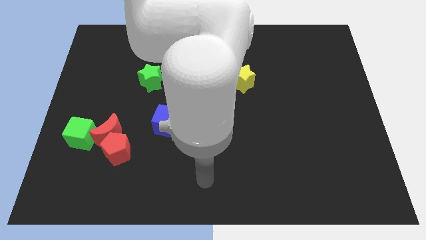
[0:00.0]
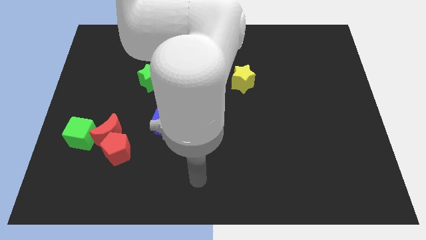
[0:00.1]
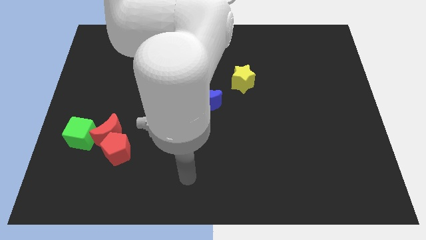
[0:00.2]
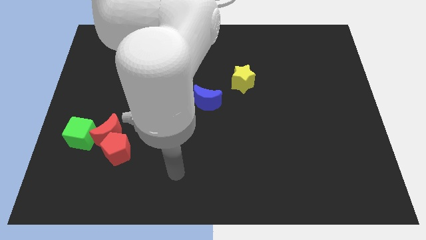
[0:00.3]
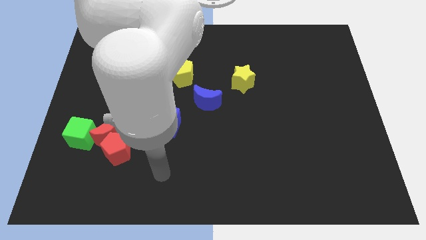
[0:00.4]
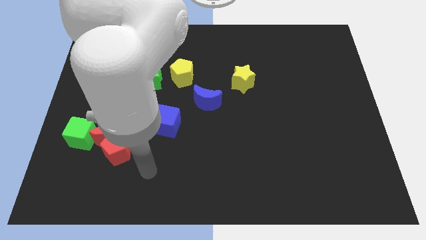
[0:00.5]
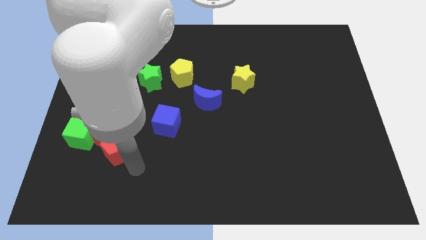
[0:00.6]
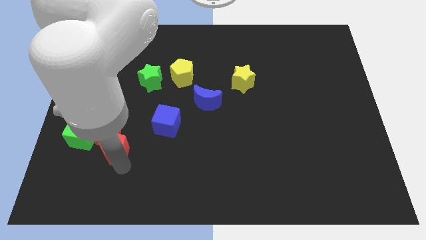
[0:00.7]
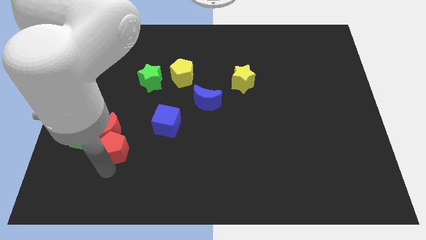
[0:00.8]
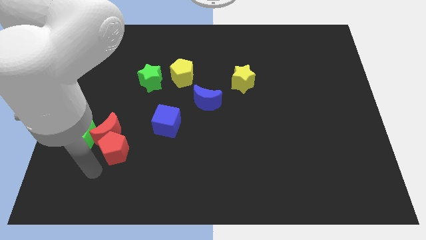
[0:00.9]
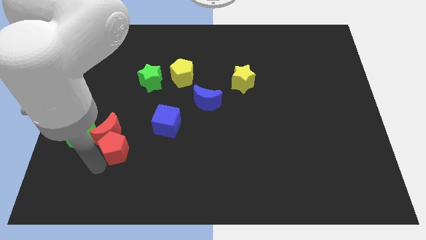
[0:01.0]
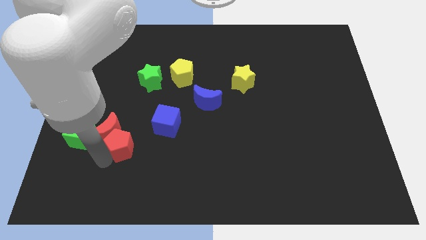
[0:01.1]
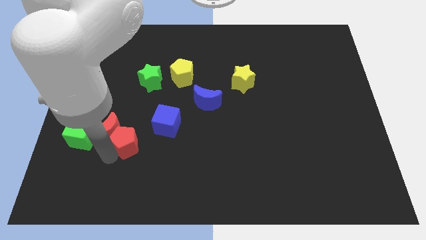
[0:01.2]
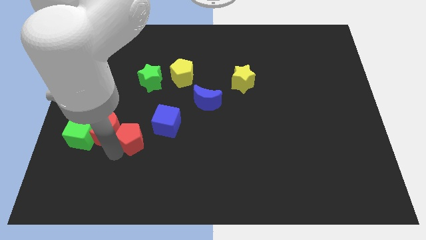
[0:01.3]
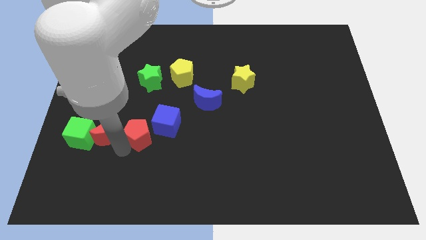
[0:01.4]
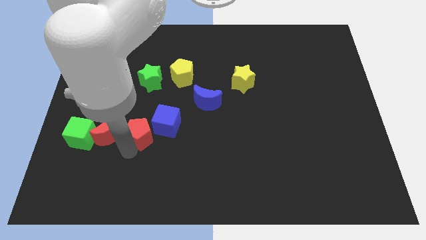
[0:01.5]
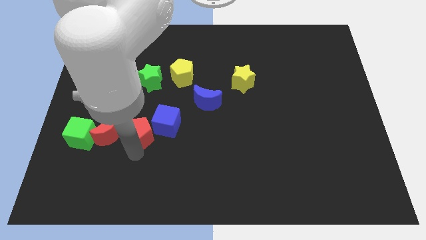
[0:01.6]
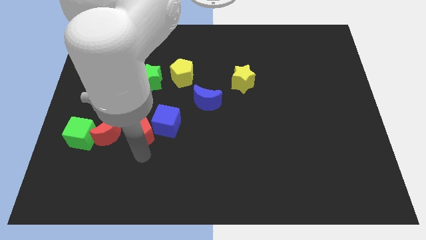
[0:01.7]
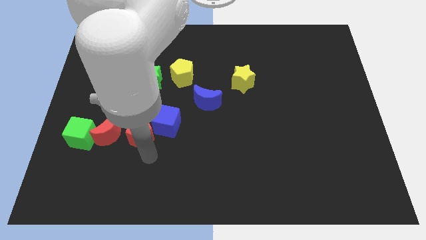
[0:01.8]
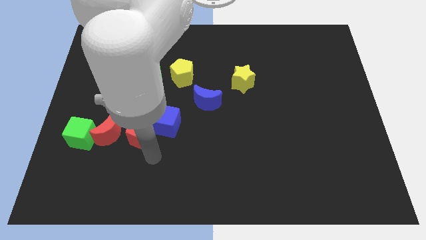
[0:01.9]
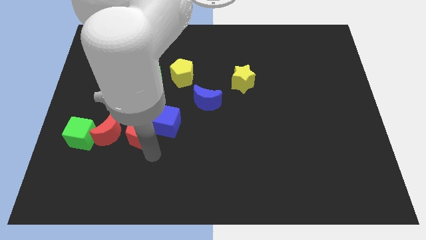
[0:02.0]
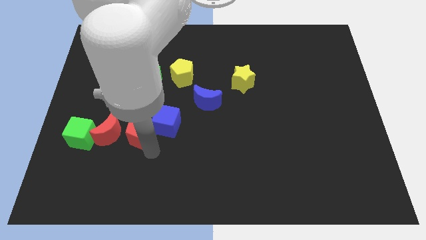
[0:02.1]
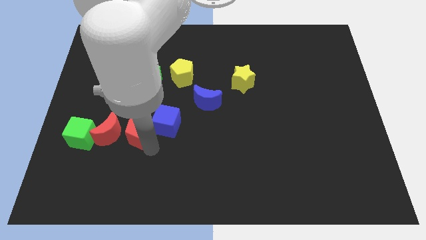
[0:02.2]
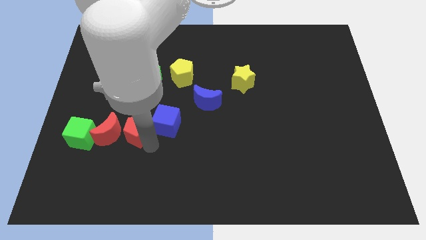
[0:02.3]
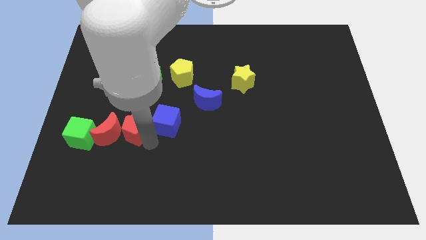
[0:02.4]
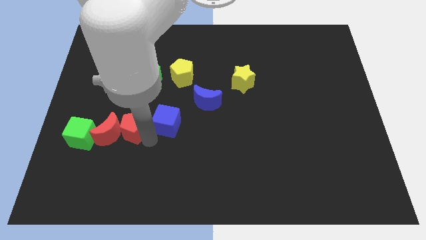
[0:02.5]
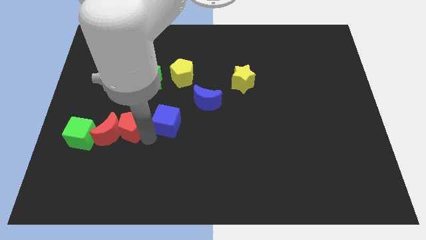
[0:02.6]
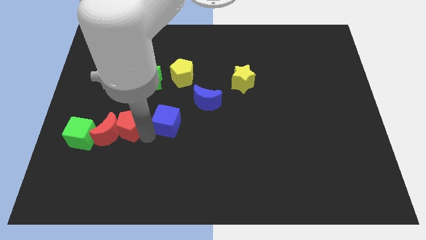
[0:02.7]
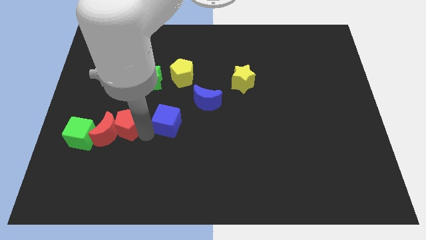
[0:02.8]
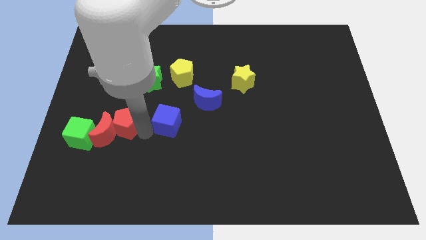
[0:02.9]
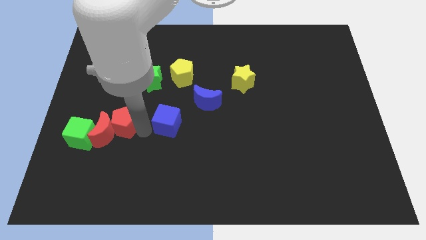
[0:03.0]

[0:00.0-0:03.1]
slide the red pentagon upwards somewhat

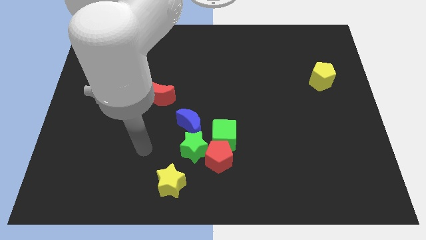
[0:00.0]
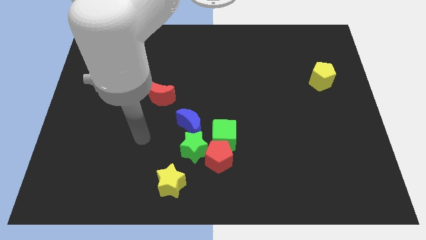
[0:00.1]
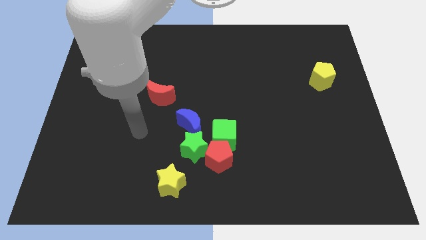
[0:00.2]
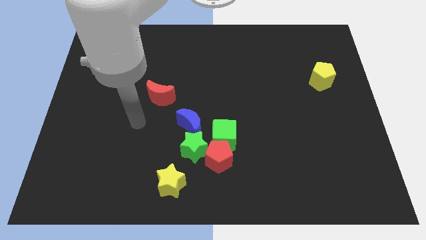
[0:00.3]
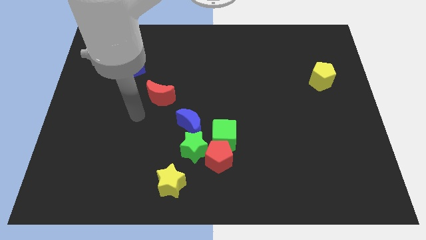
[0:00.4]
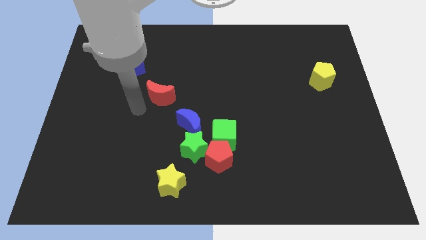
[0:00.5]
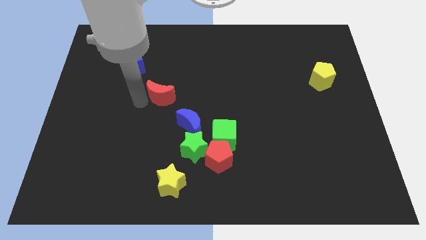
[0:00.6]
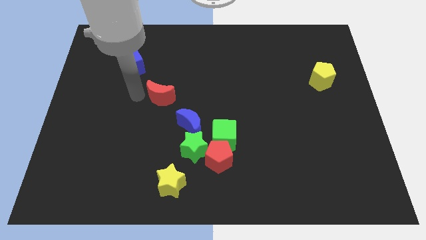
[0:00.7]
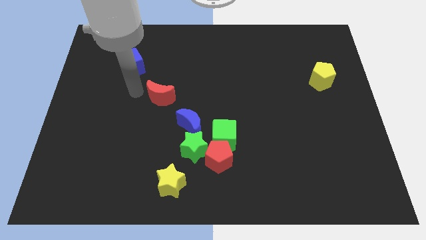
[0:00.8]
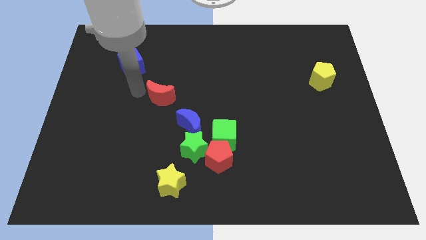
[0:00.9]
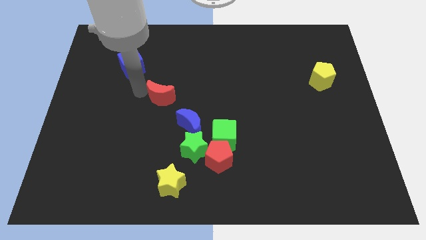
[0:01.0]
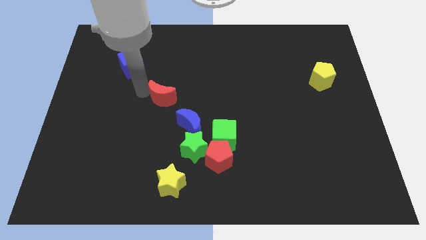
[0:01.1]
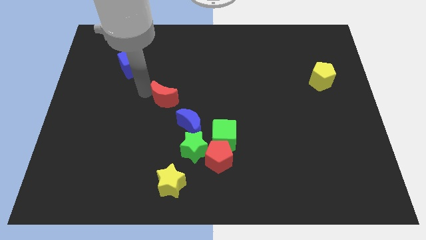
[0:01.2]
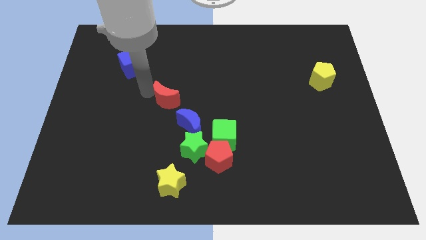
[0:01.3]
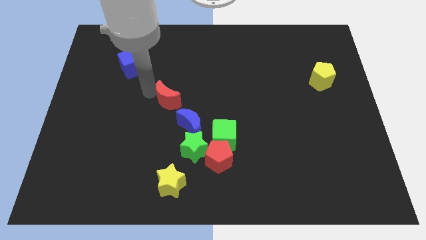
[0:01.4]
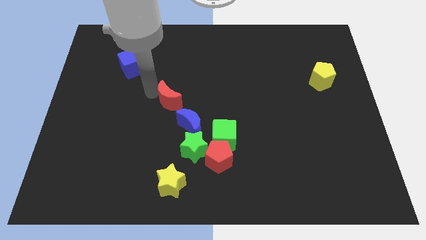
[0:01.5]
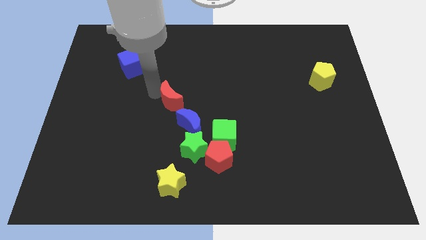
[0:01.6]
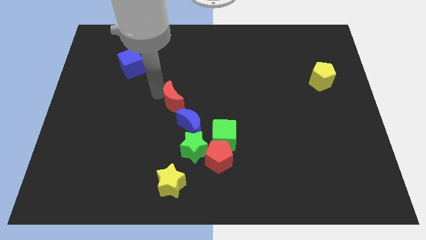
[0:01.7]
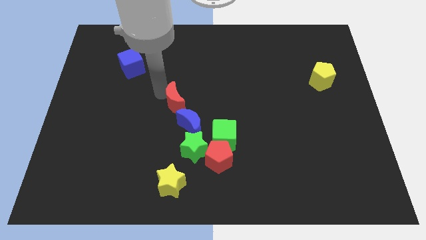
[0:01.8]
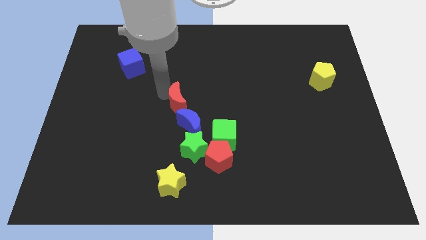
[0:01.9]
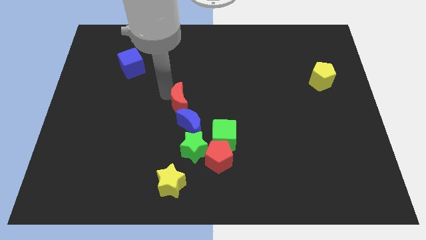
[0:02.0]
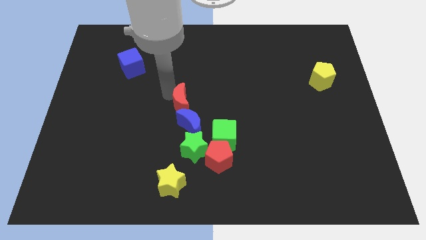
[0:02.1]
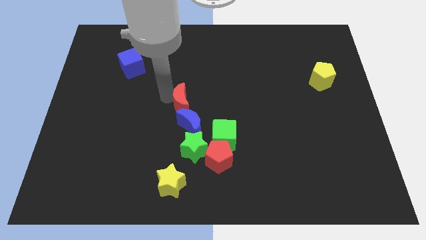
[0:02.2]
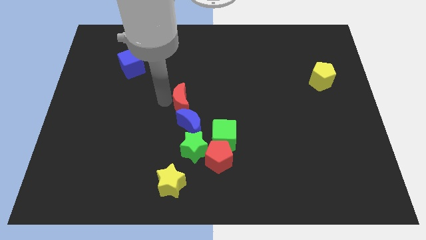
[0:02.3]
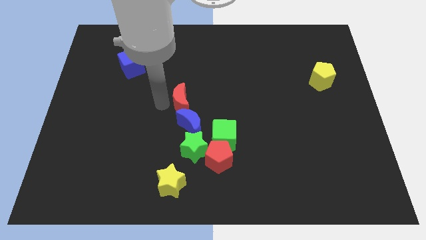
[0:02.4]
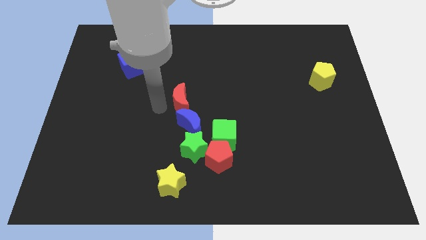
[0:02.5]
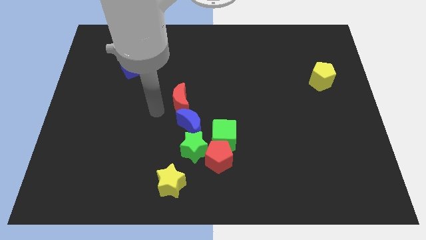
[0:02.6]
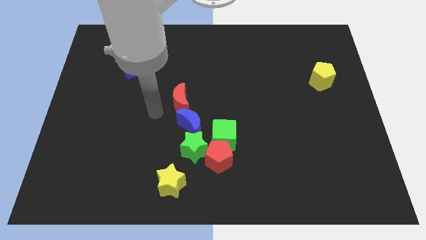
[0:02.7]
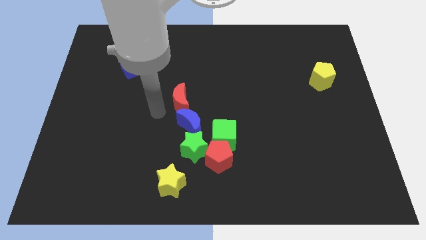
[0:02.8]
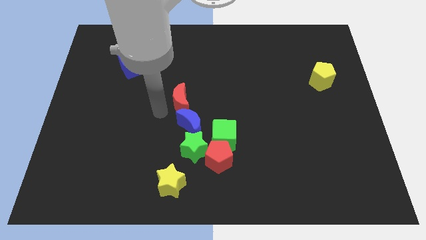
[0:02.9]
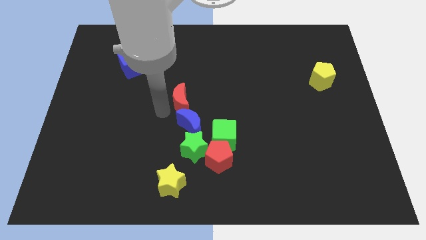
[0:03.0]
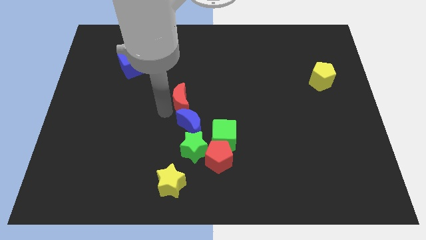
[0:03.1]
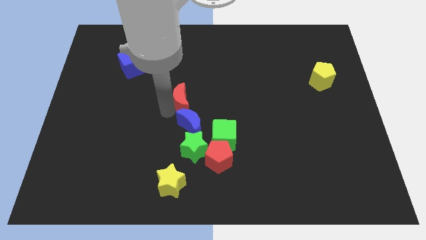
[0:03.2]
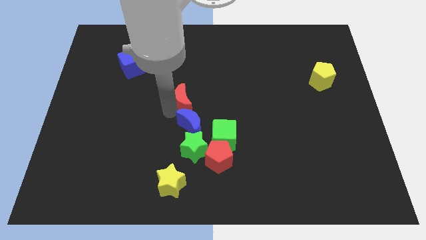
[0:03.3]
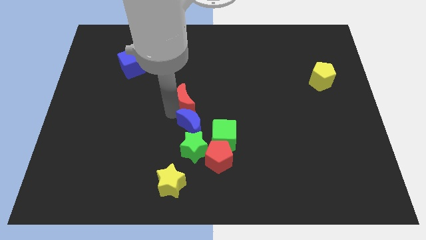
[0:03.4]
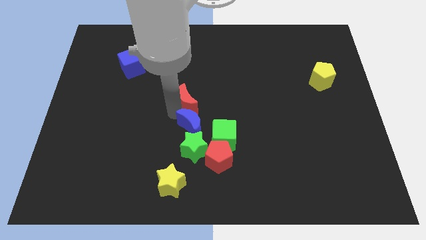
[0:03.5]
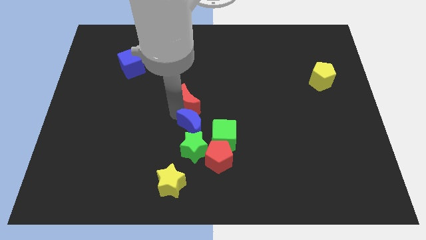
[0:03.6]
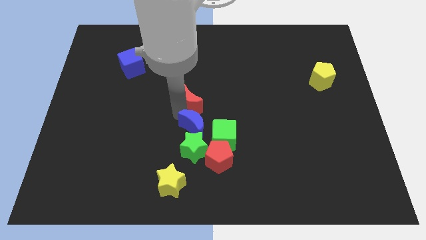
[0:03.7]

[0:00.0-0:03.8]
push the red moon right a little bit

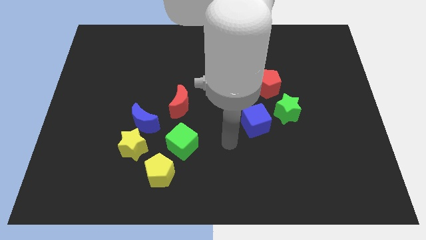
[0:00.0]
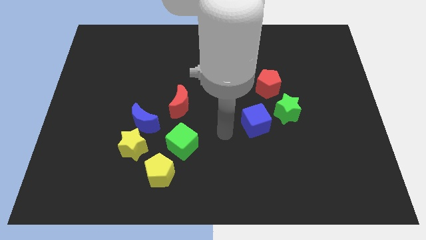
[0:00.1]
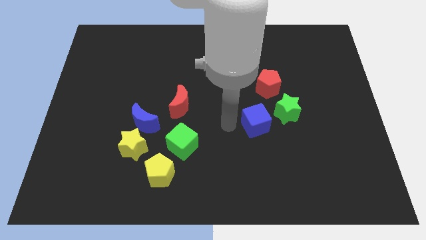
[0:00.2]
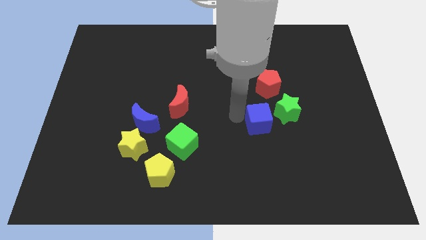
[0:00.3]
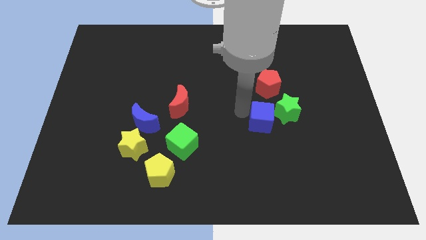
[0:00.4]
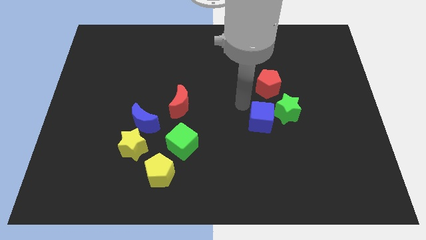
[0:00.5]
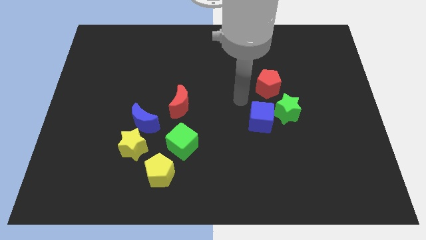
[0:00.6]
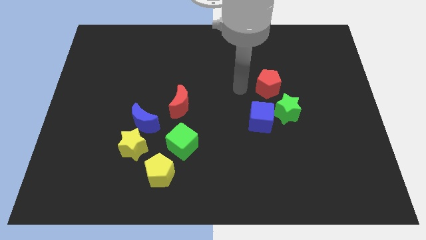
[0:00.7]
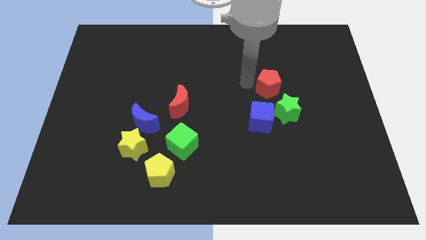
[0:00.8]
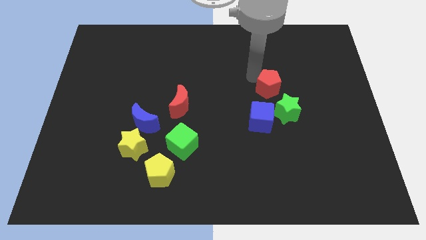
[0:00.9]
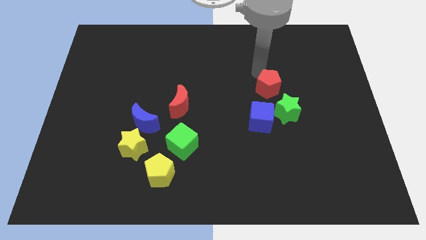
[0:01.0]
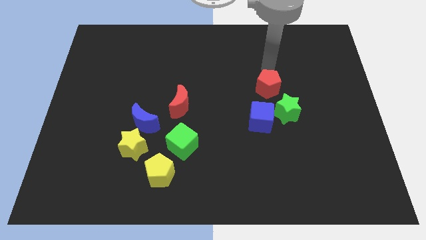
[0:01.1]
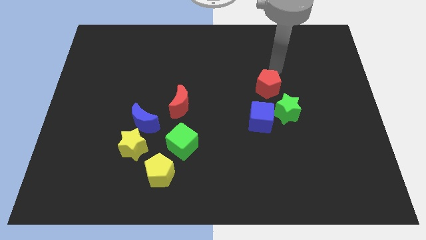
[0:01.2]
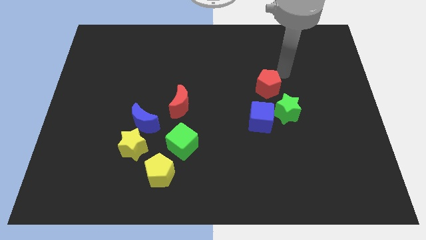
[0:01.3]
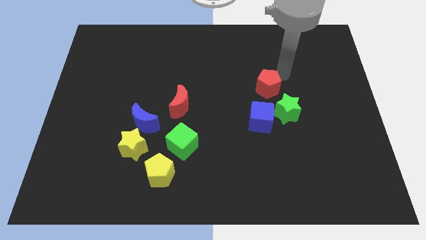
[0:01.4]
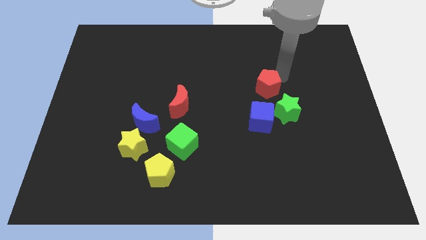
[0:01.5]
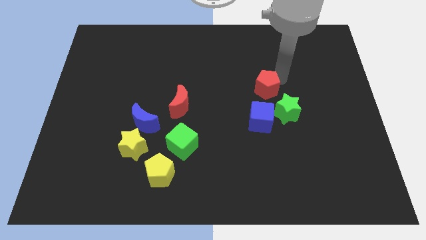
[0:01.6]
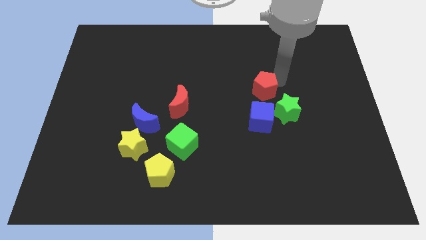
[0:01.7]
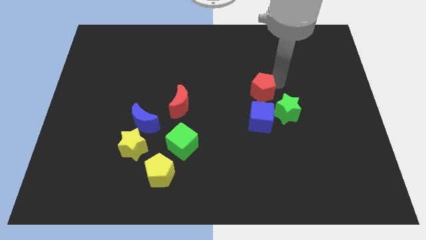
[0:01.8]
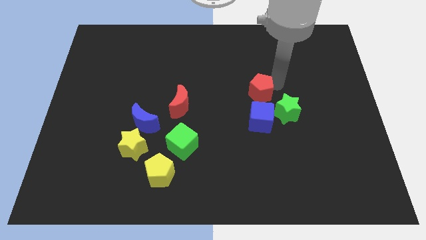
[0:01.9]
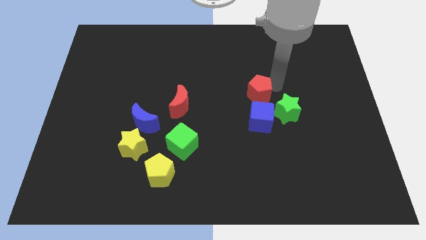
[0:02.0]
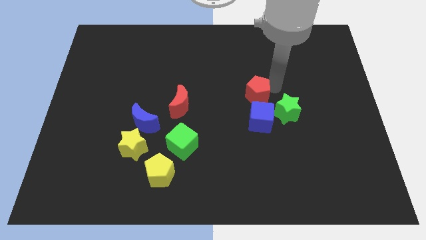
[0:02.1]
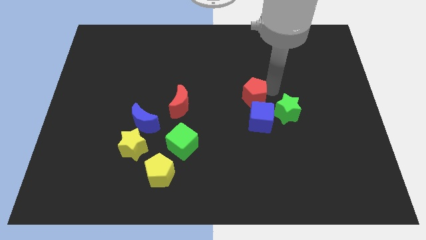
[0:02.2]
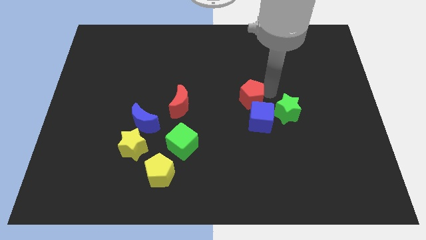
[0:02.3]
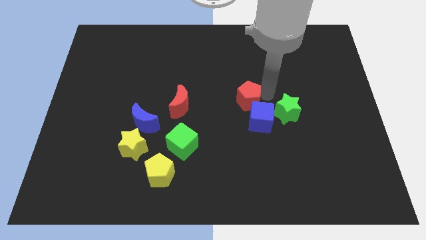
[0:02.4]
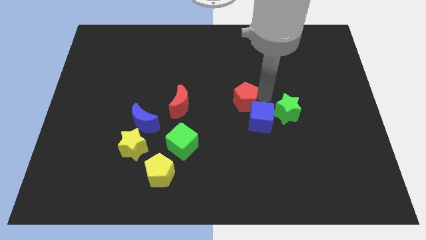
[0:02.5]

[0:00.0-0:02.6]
push the red pentagon downwards and then to the left somewhat
